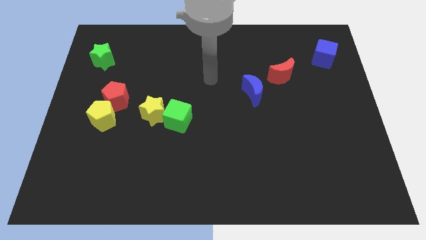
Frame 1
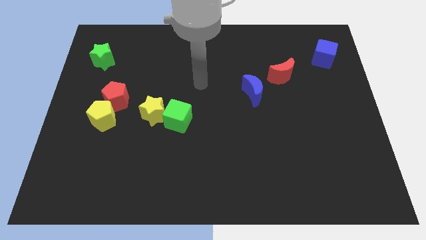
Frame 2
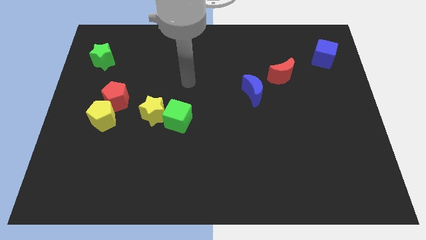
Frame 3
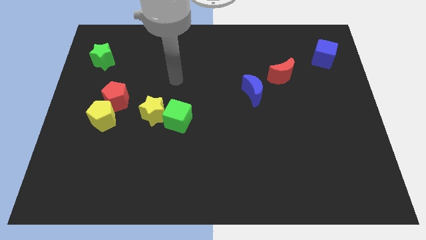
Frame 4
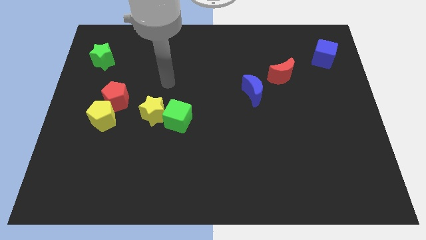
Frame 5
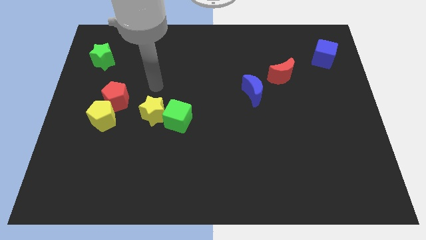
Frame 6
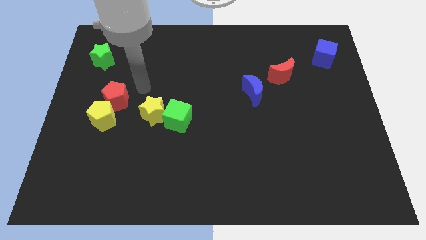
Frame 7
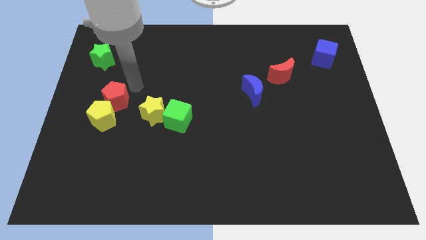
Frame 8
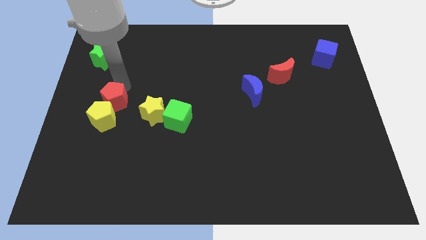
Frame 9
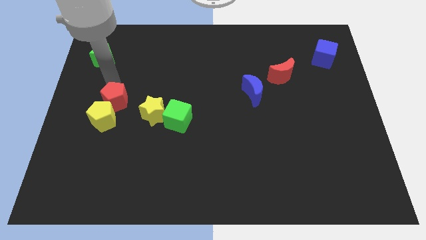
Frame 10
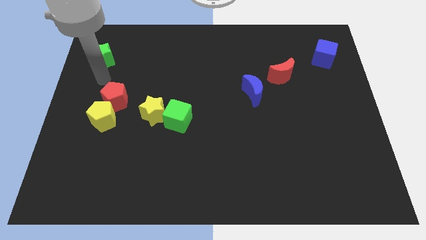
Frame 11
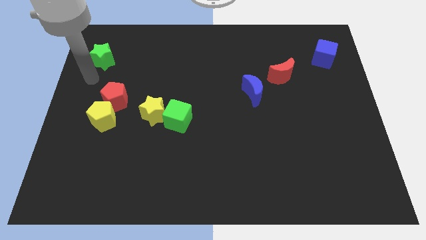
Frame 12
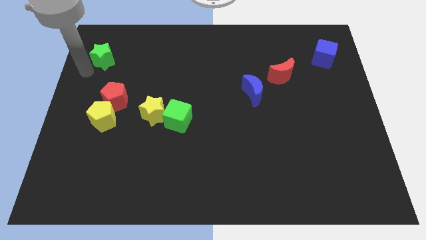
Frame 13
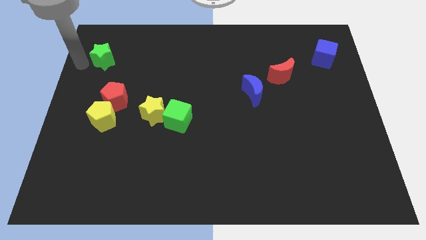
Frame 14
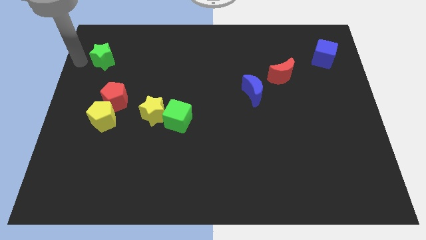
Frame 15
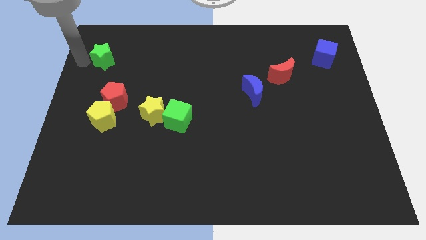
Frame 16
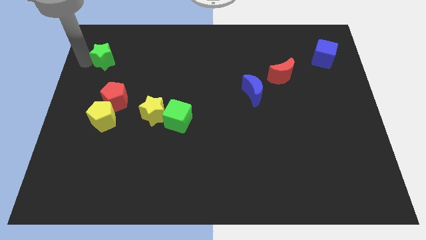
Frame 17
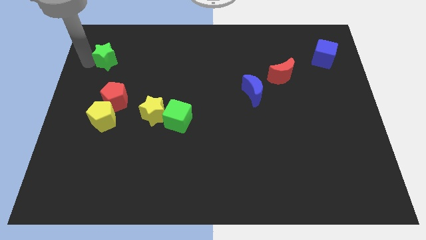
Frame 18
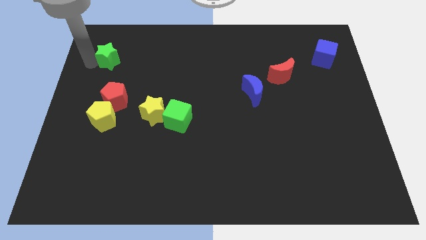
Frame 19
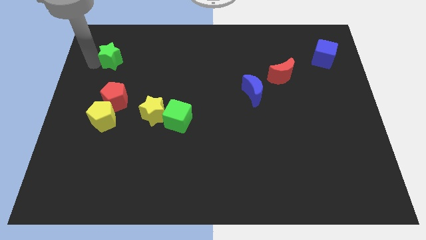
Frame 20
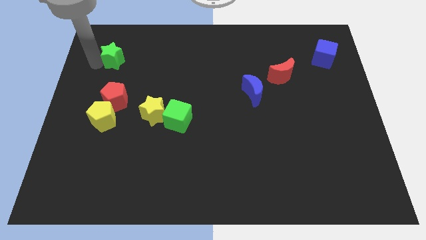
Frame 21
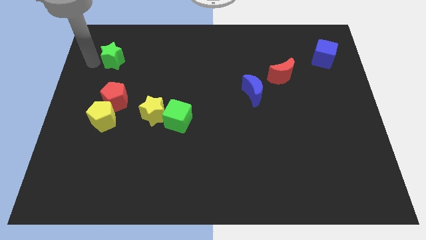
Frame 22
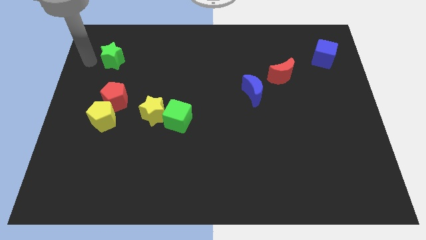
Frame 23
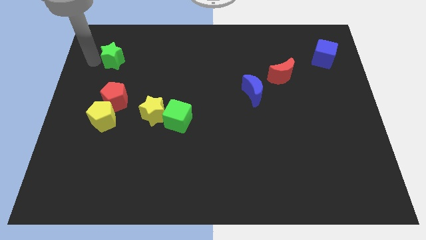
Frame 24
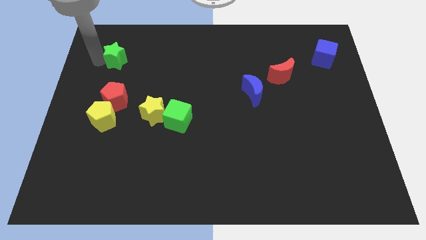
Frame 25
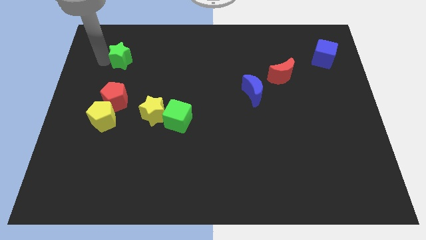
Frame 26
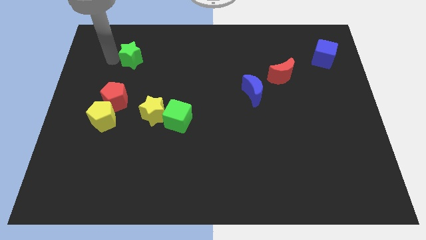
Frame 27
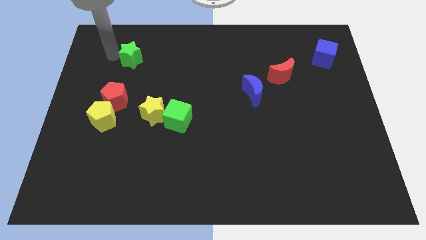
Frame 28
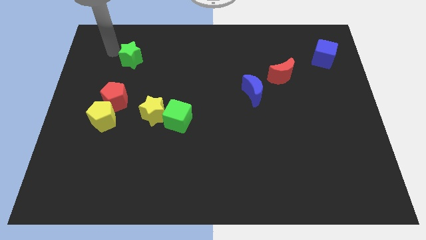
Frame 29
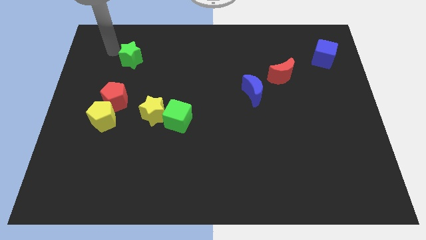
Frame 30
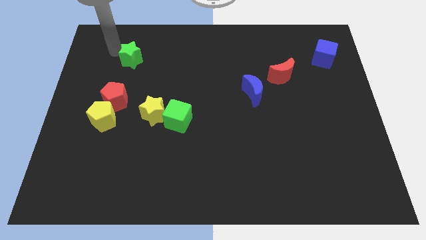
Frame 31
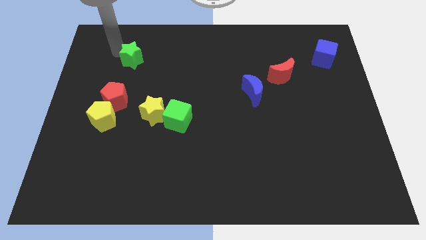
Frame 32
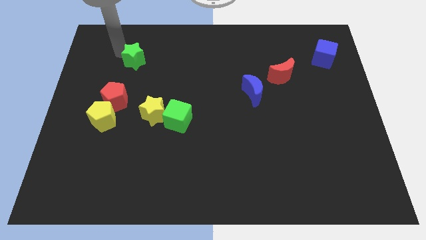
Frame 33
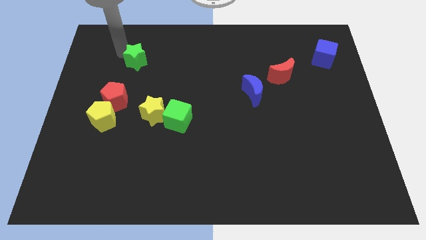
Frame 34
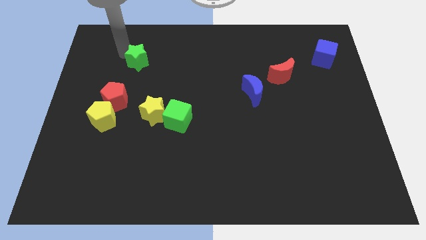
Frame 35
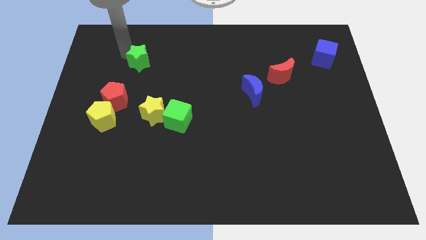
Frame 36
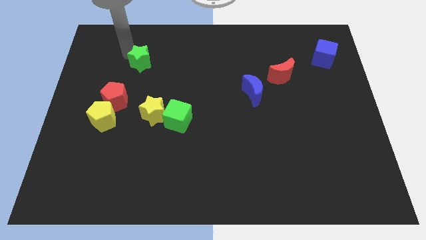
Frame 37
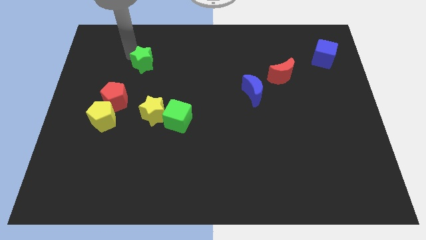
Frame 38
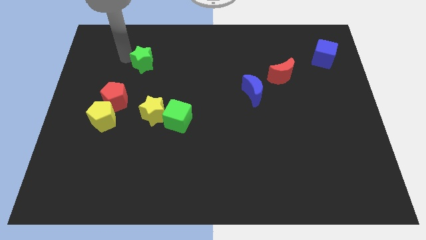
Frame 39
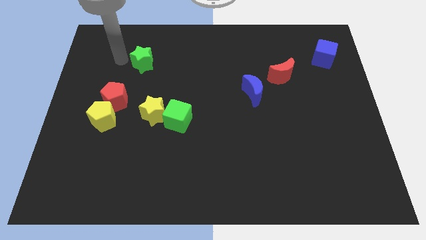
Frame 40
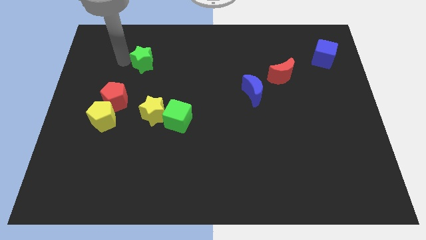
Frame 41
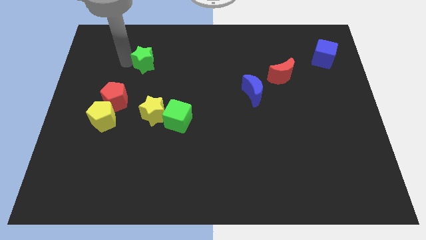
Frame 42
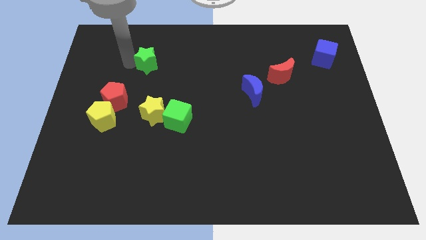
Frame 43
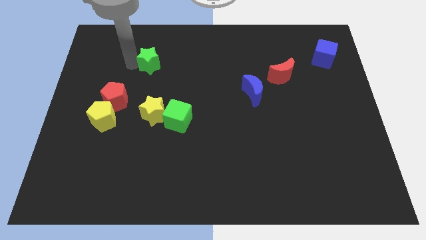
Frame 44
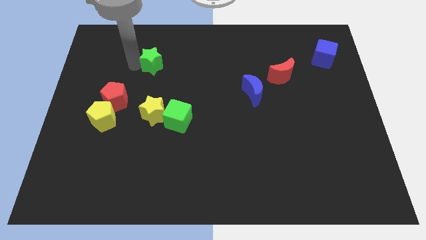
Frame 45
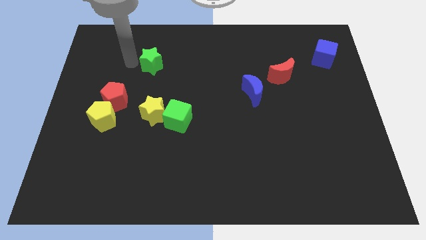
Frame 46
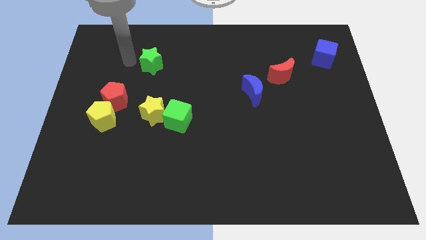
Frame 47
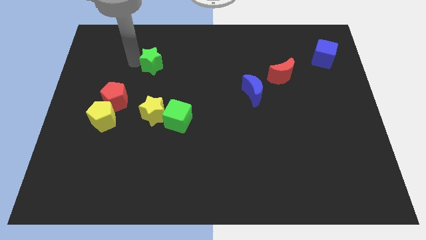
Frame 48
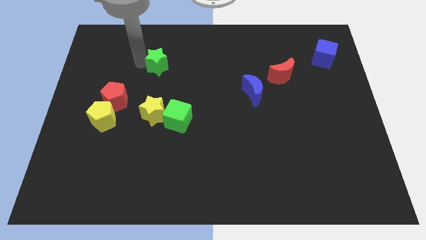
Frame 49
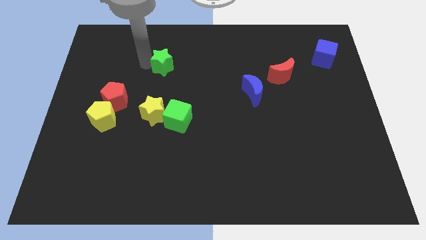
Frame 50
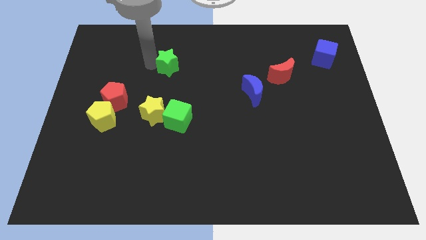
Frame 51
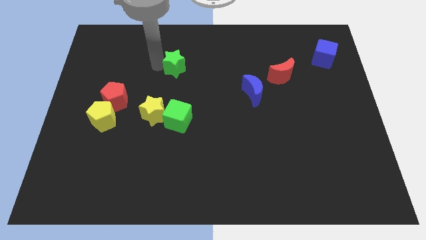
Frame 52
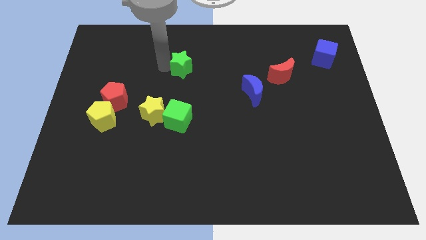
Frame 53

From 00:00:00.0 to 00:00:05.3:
slide the green star to the right

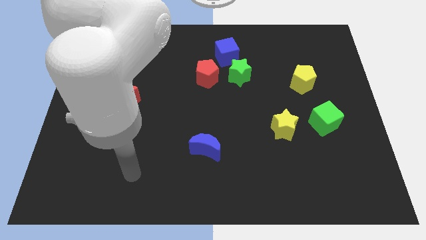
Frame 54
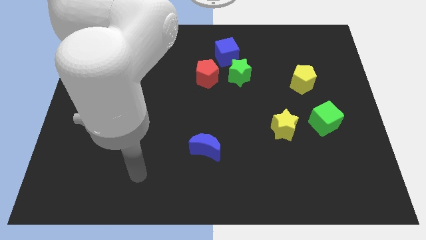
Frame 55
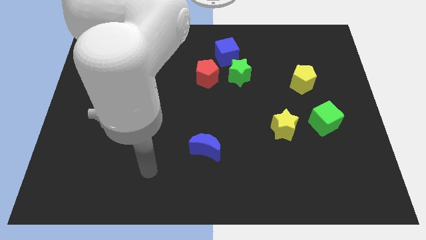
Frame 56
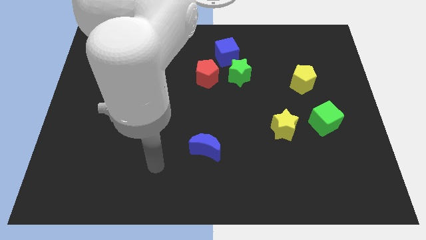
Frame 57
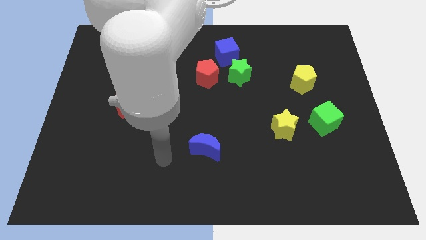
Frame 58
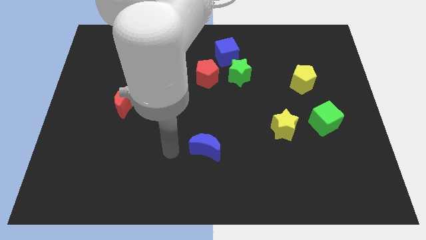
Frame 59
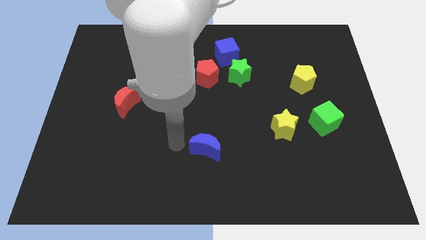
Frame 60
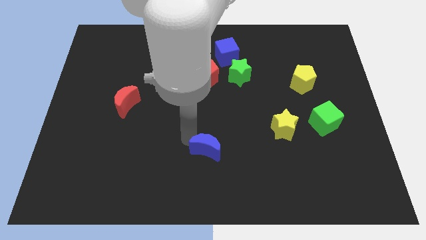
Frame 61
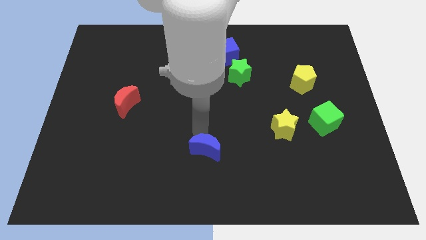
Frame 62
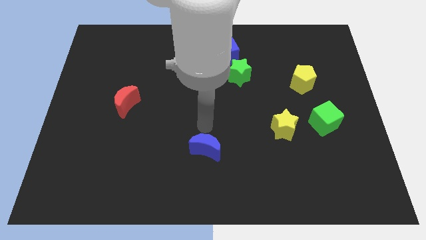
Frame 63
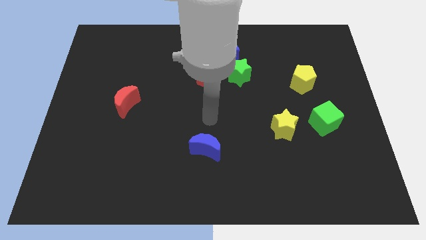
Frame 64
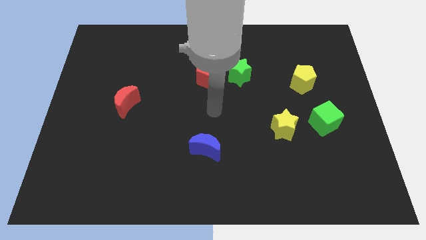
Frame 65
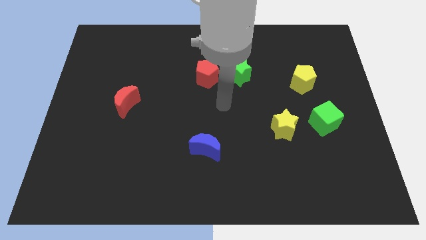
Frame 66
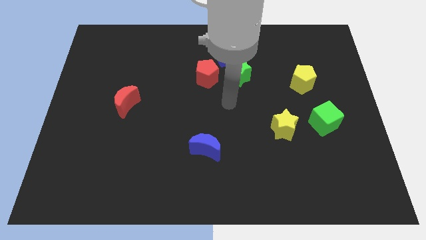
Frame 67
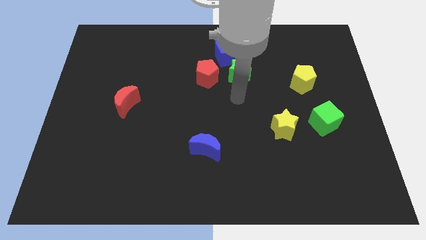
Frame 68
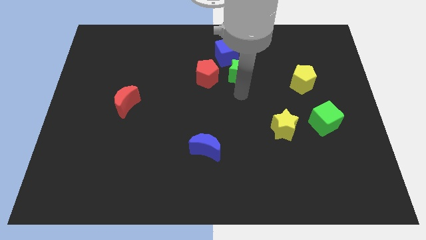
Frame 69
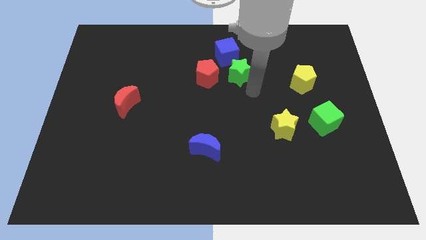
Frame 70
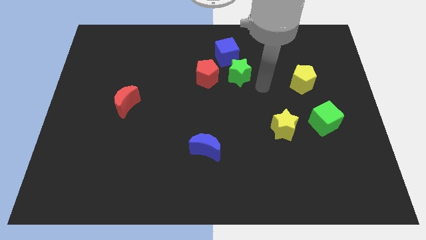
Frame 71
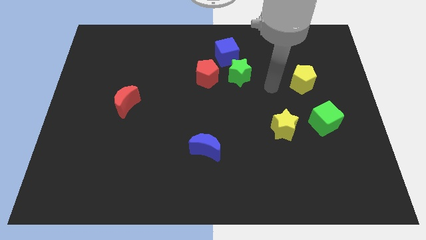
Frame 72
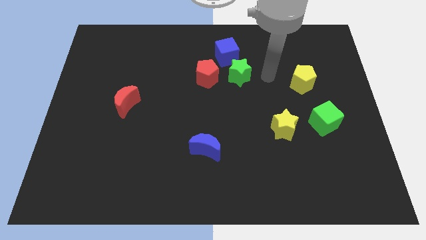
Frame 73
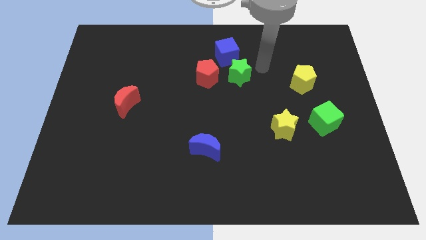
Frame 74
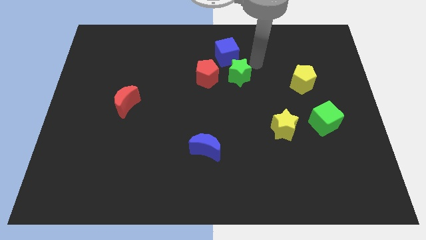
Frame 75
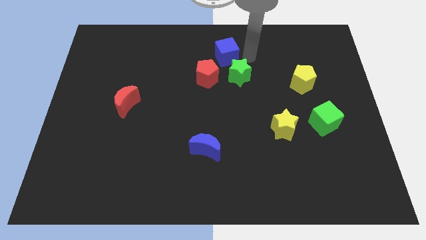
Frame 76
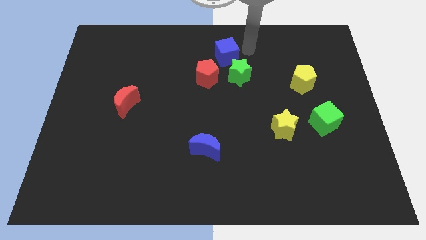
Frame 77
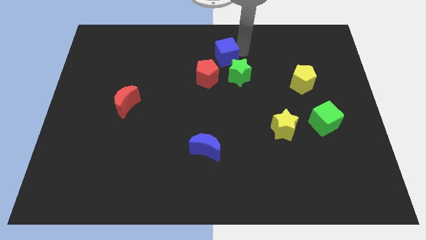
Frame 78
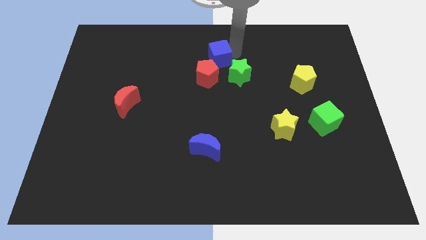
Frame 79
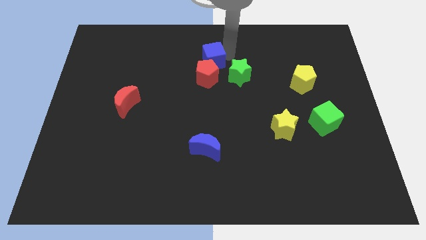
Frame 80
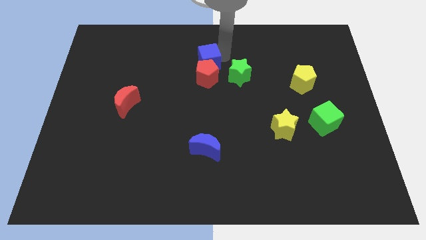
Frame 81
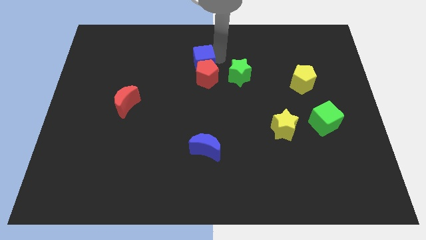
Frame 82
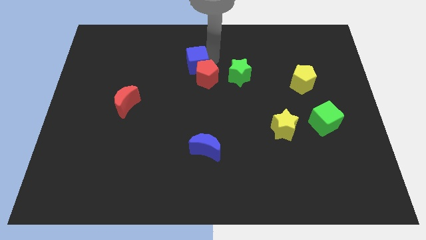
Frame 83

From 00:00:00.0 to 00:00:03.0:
push the blue cube a little down and left diagonally

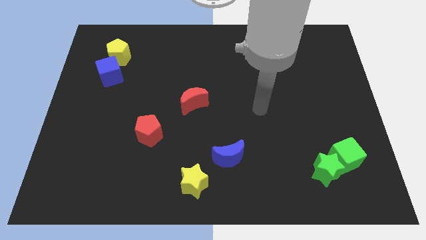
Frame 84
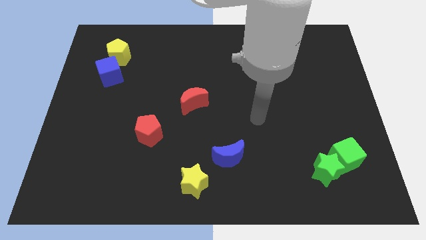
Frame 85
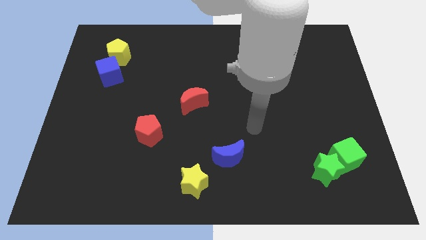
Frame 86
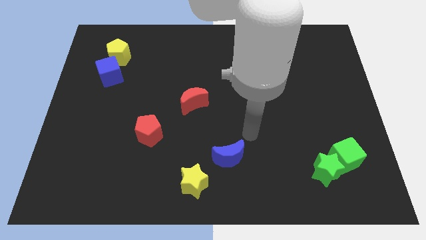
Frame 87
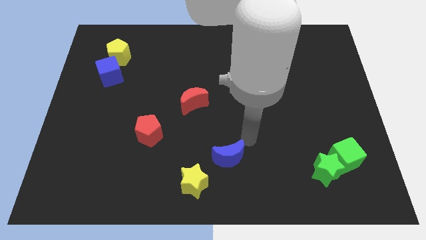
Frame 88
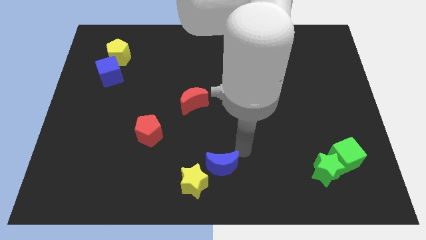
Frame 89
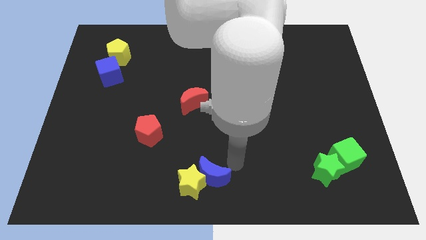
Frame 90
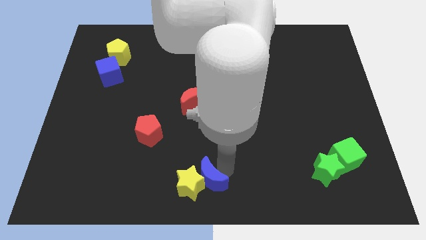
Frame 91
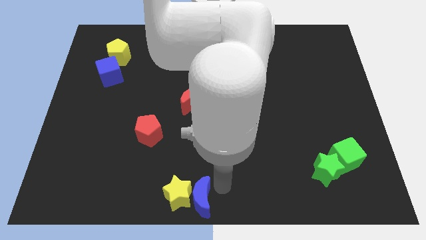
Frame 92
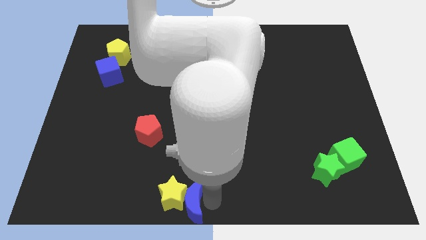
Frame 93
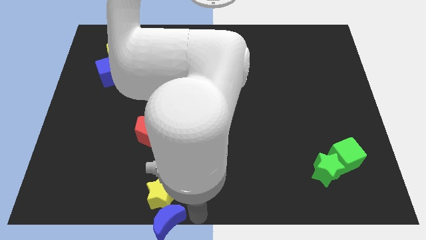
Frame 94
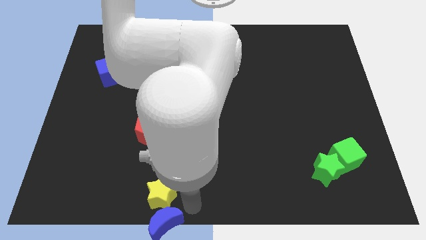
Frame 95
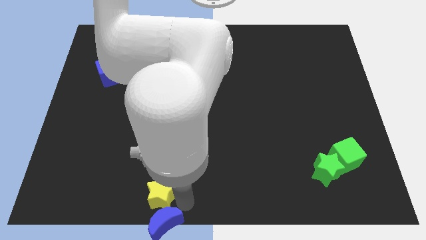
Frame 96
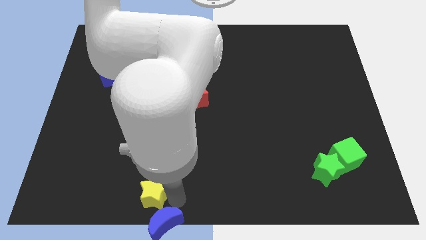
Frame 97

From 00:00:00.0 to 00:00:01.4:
slide the yellow star a little bit left
